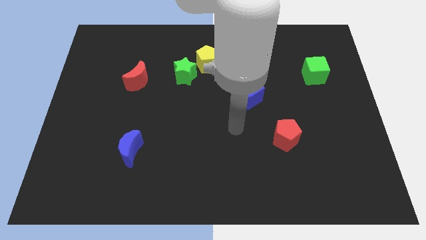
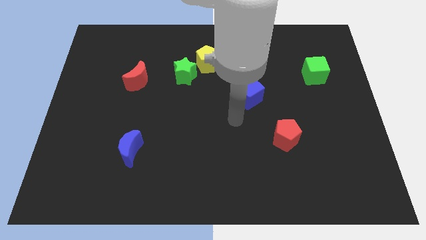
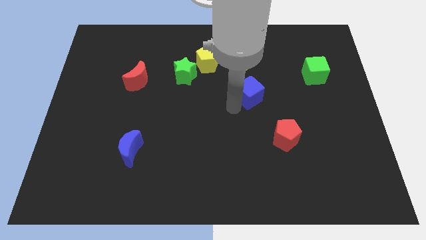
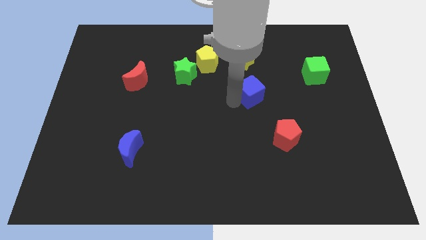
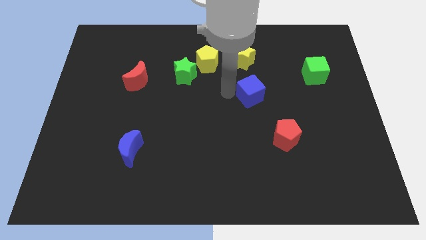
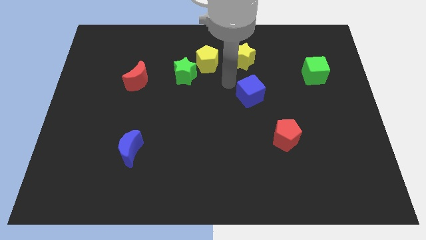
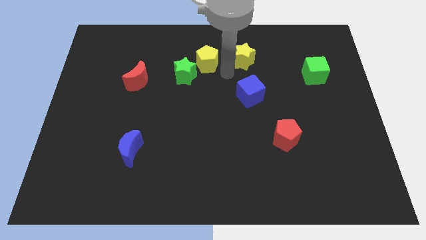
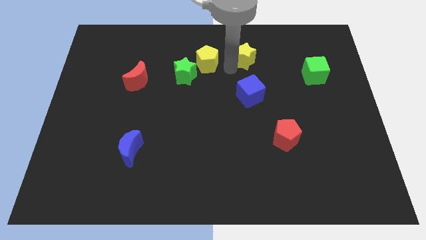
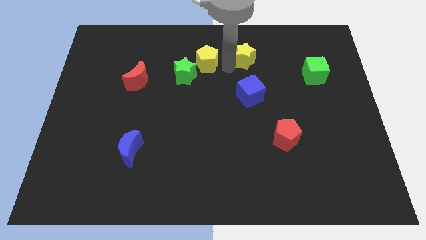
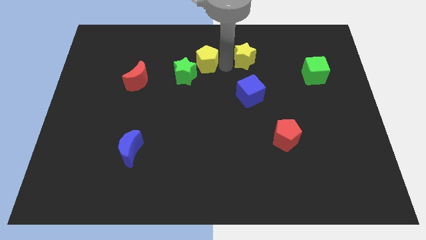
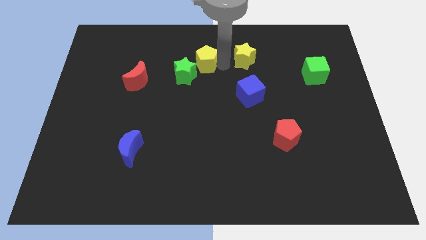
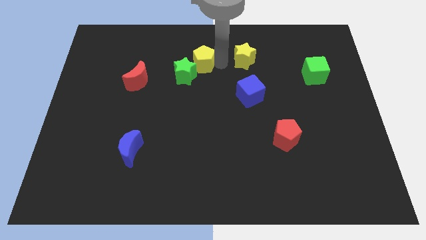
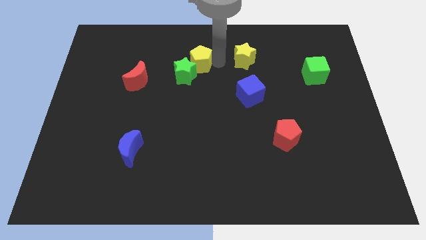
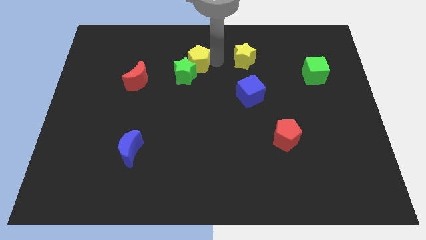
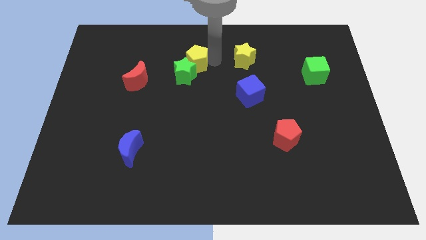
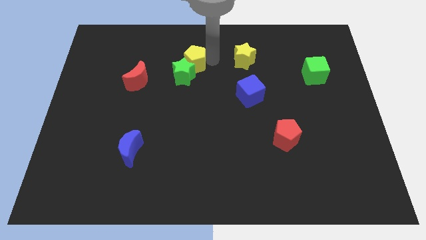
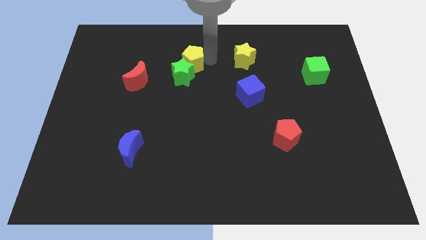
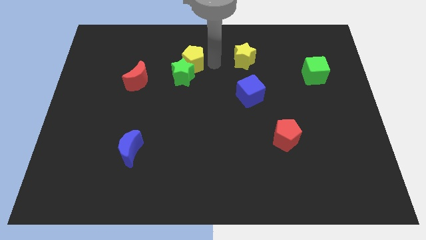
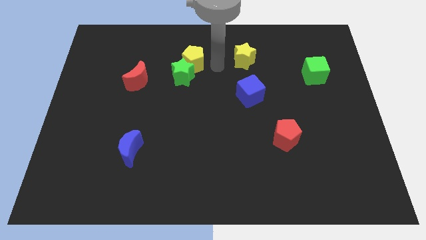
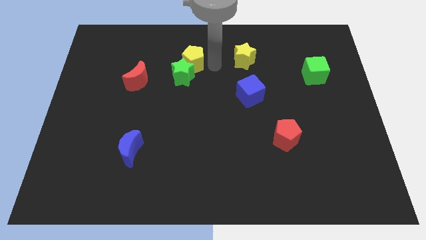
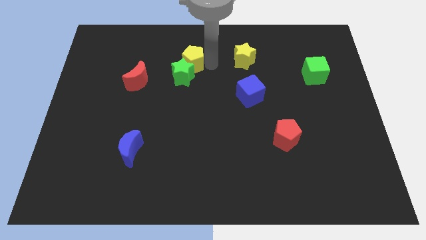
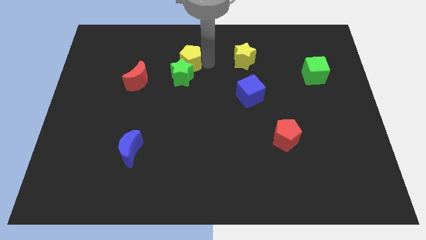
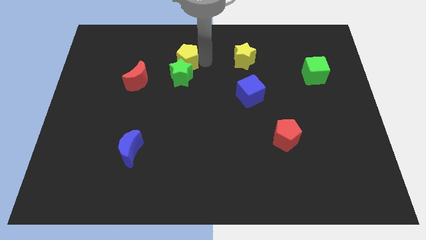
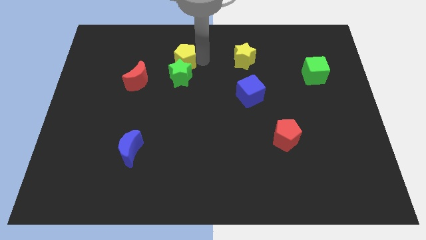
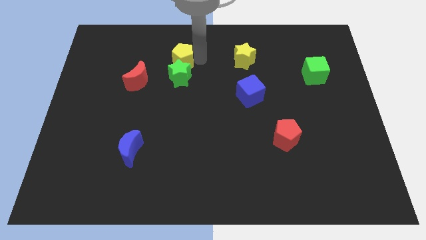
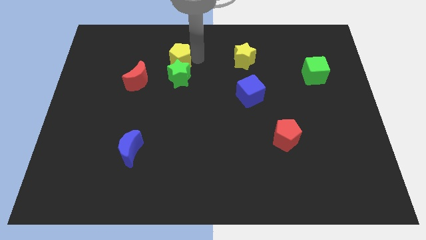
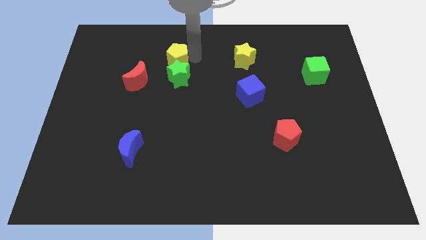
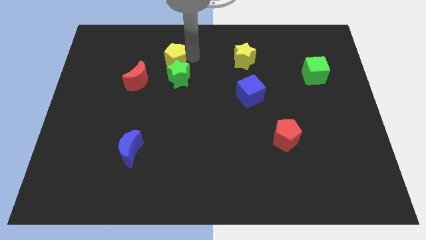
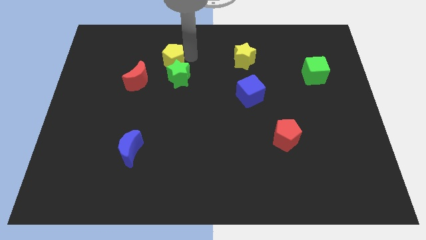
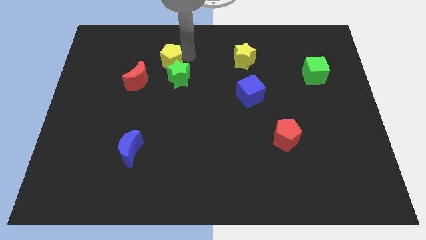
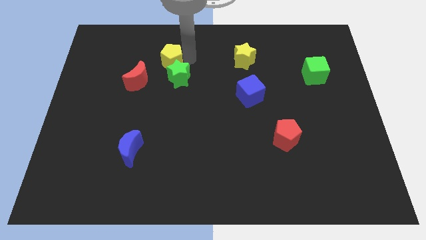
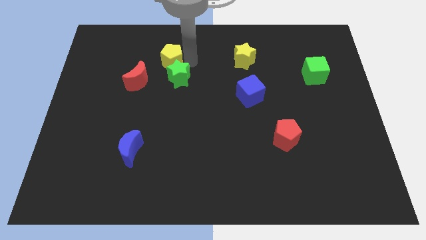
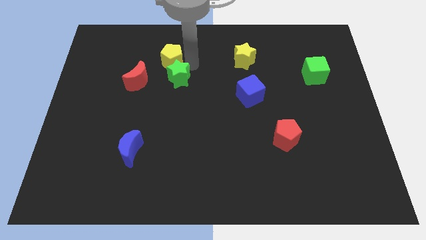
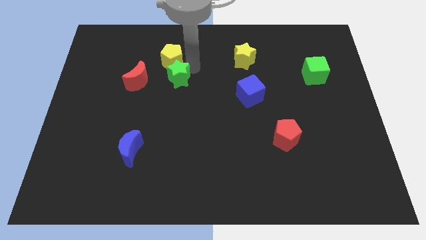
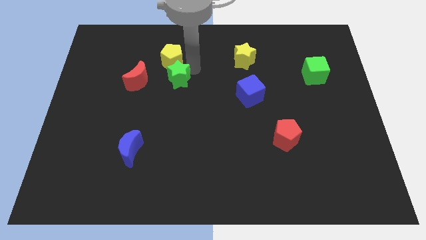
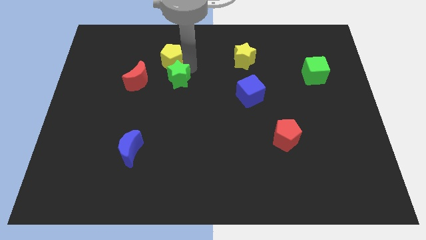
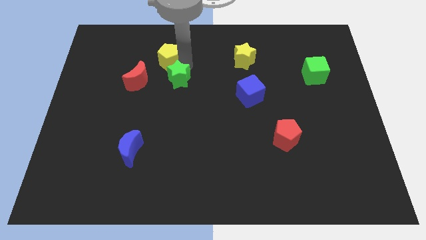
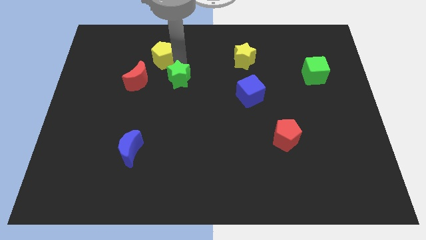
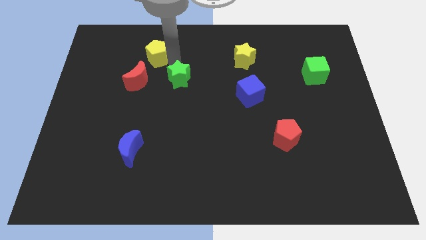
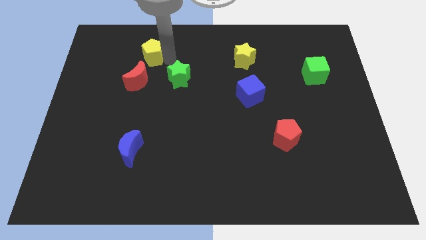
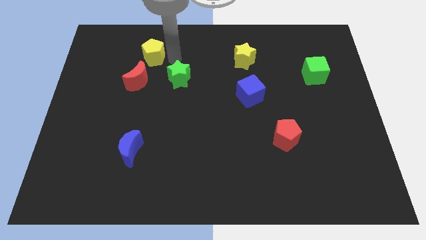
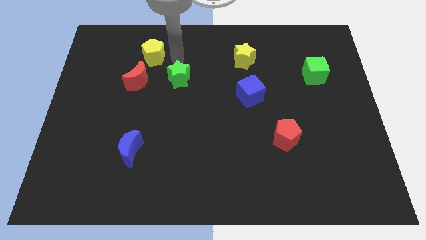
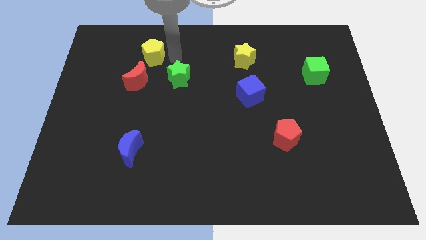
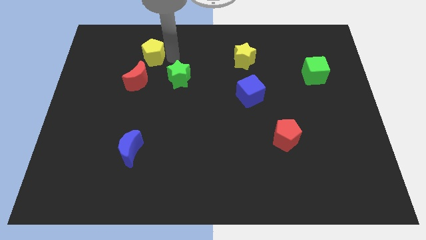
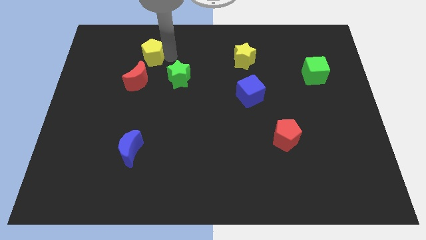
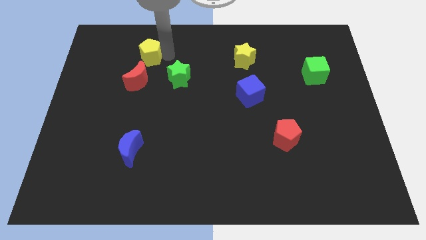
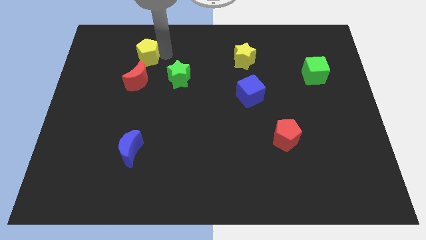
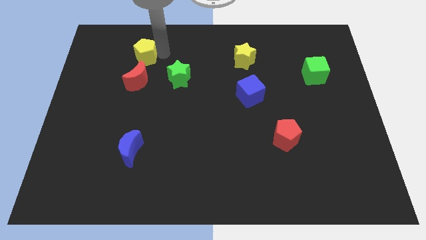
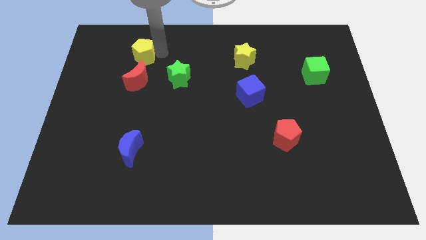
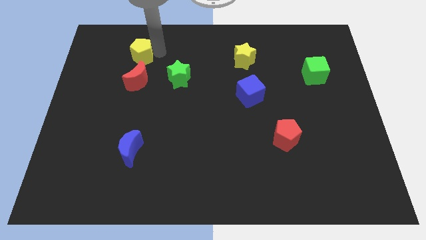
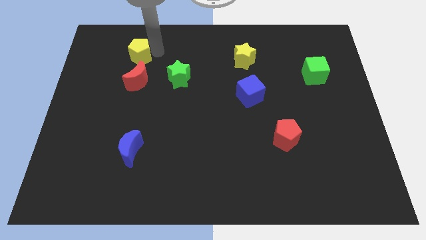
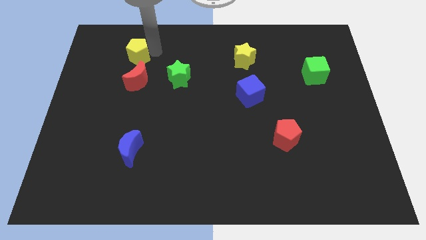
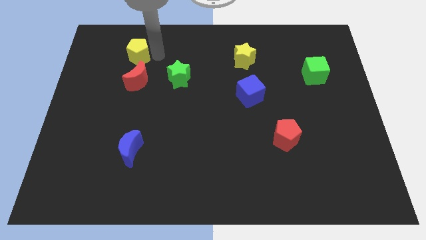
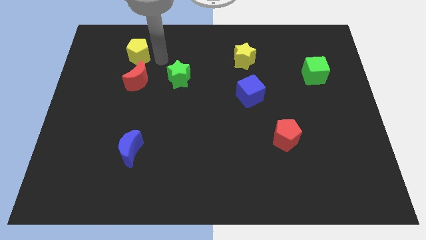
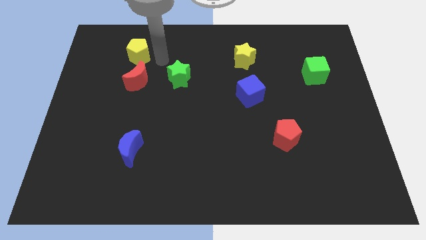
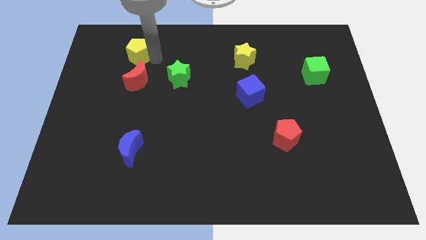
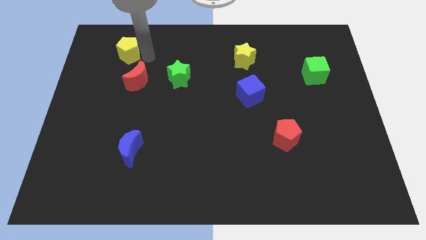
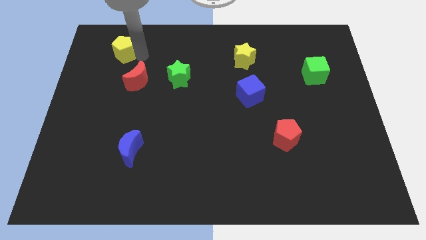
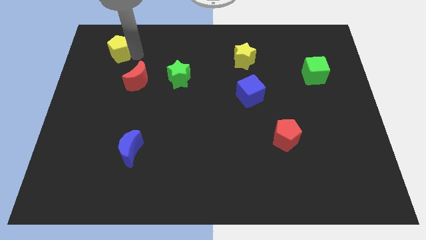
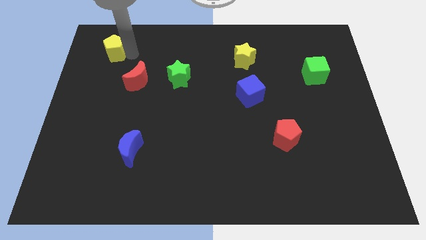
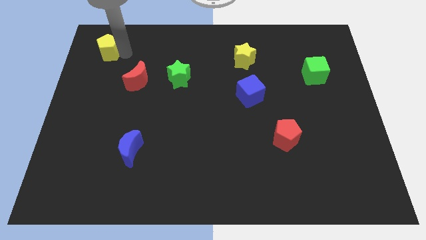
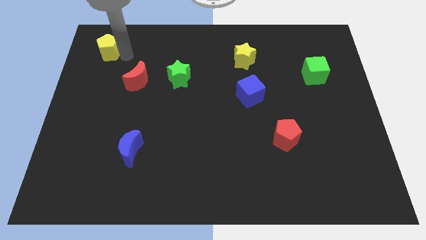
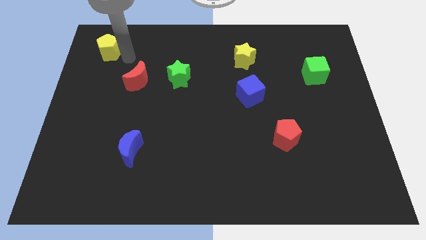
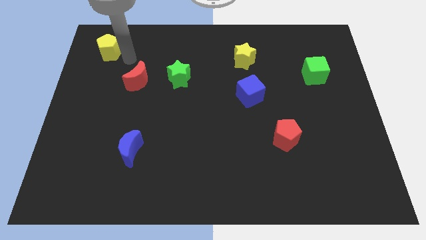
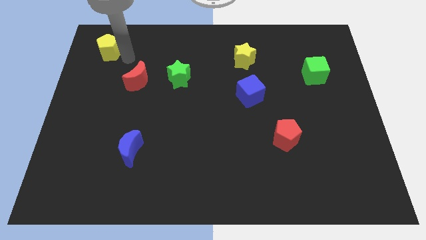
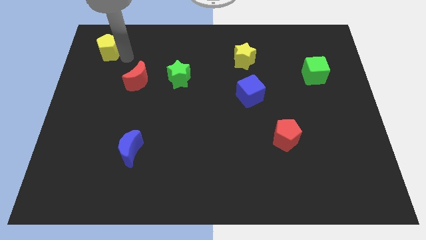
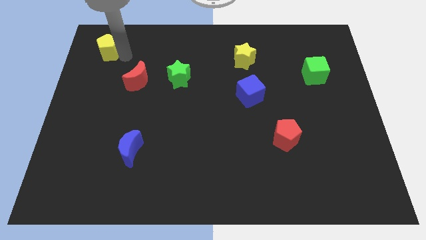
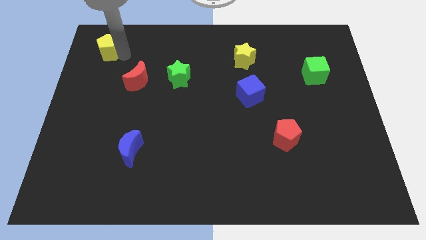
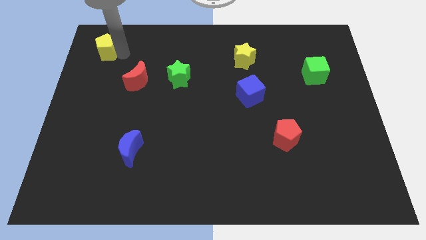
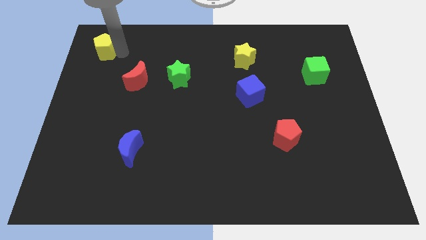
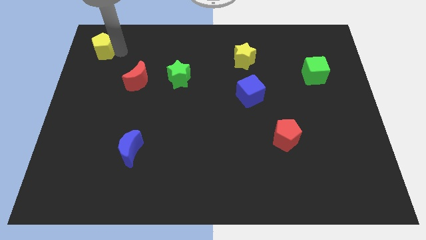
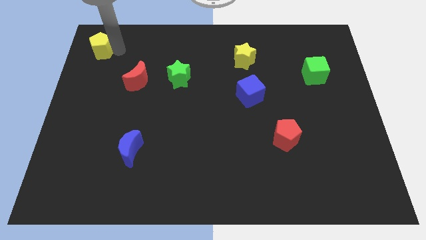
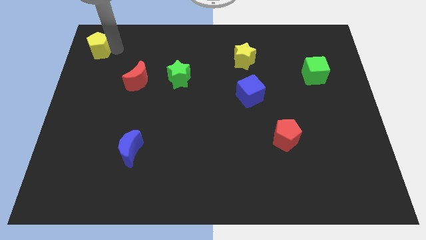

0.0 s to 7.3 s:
push the yellow pentagon to the top left of the board
